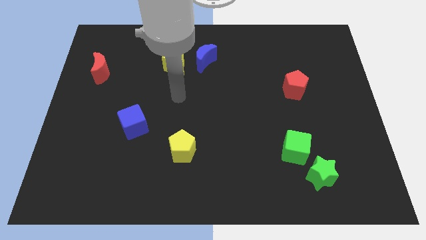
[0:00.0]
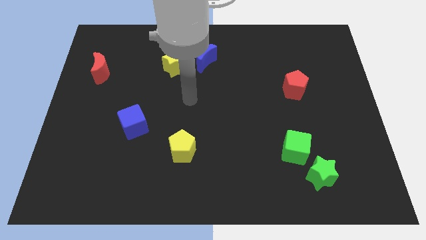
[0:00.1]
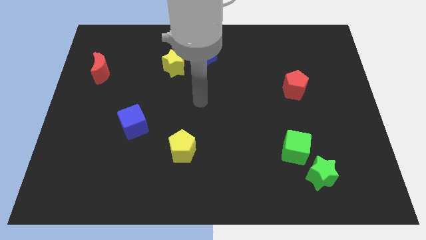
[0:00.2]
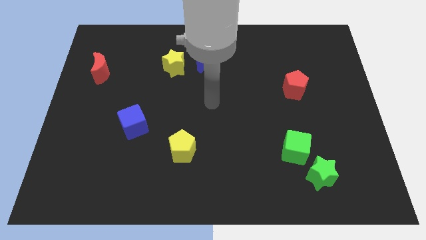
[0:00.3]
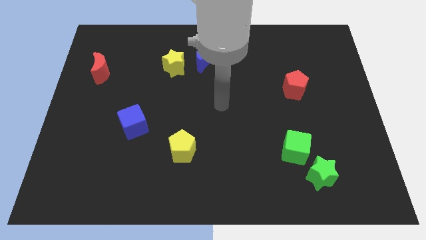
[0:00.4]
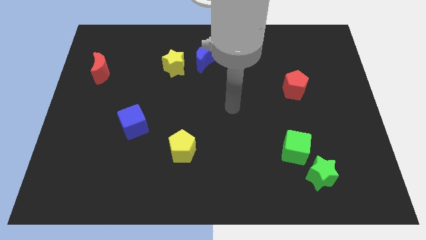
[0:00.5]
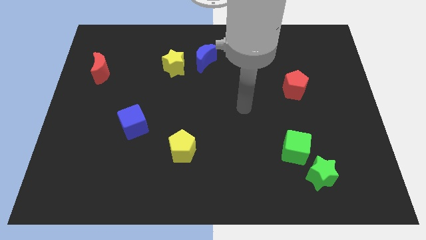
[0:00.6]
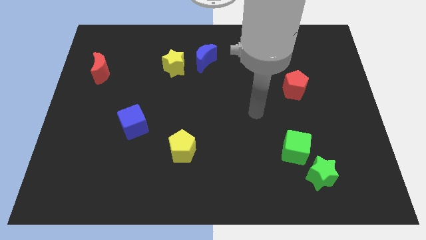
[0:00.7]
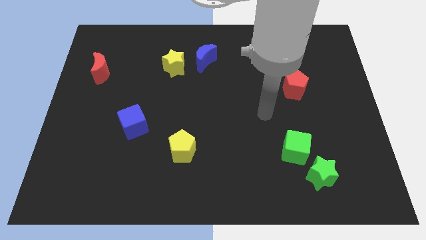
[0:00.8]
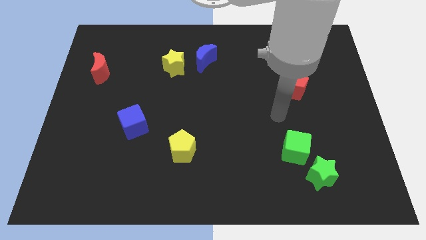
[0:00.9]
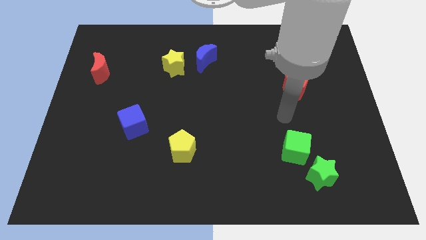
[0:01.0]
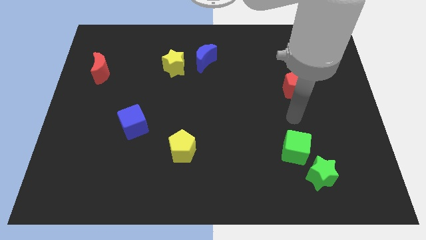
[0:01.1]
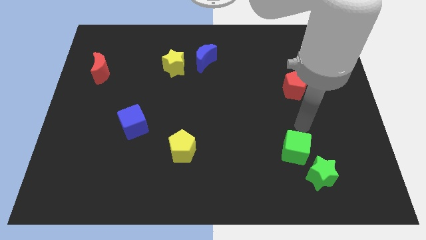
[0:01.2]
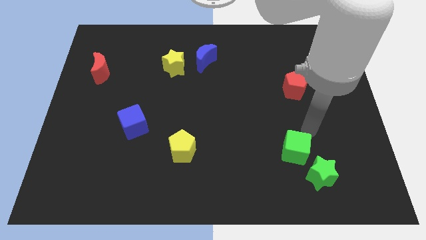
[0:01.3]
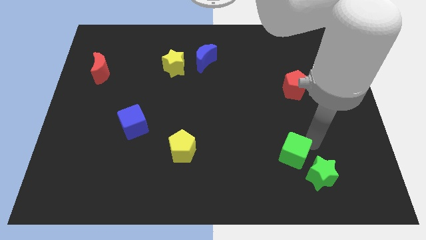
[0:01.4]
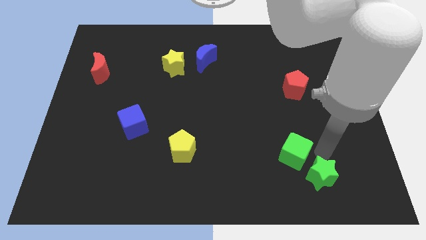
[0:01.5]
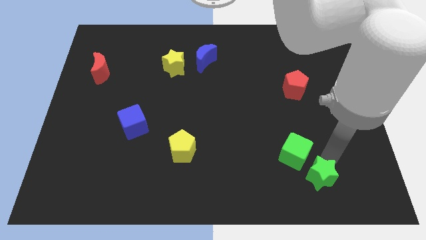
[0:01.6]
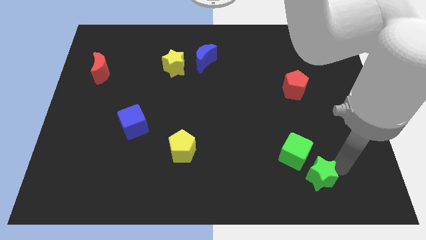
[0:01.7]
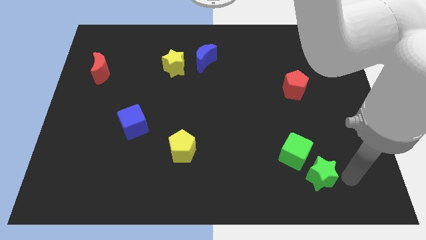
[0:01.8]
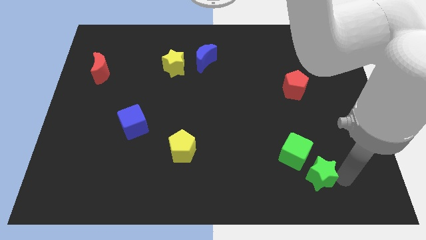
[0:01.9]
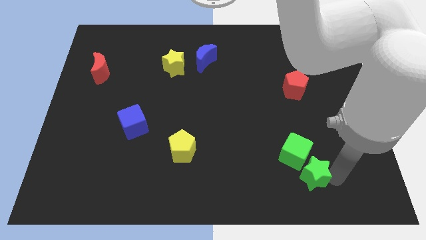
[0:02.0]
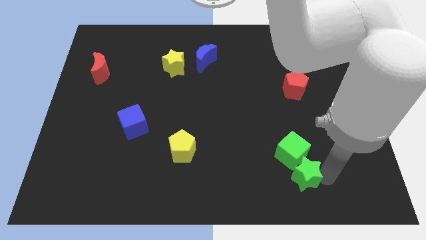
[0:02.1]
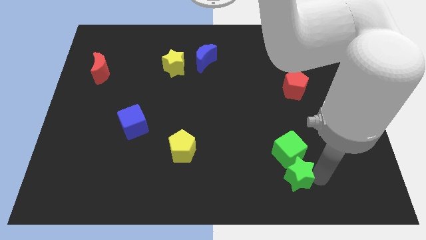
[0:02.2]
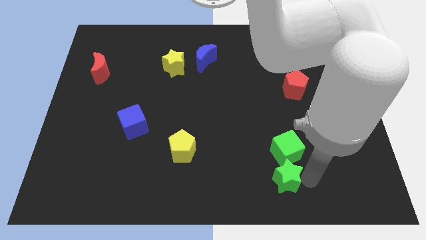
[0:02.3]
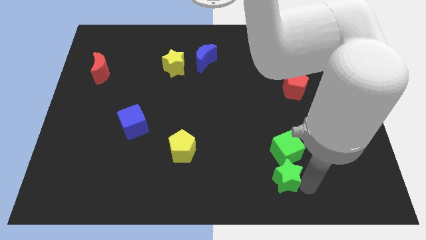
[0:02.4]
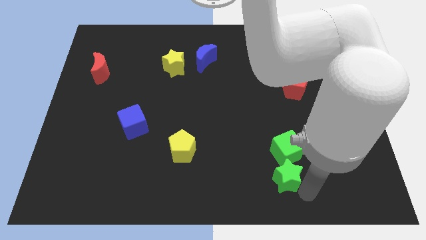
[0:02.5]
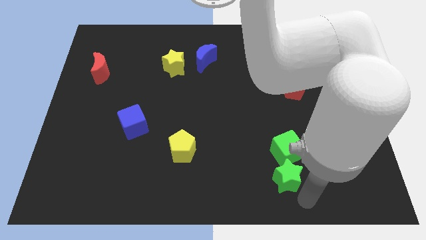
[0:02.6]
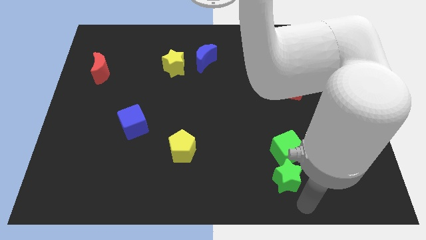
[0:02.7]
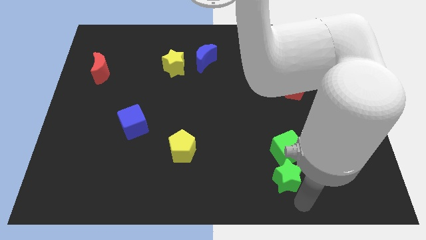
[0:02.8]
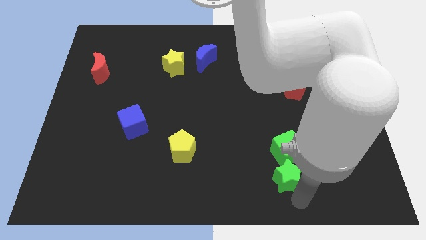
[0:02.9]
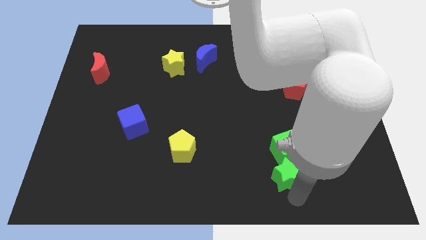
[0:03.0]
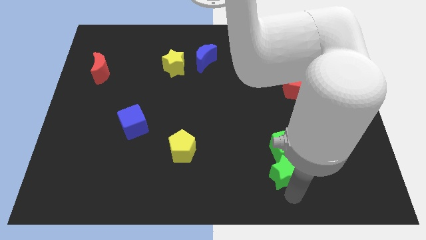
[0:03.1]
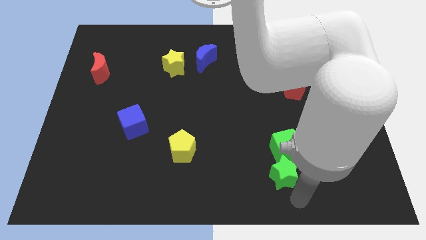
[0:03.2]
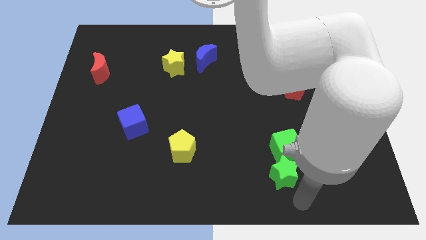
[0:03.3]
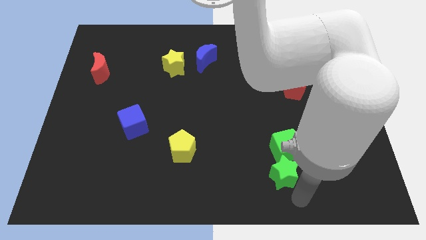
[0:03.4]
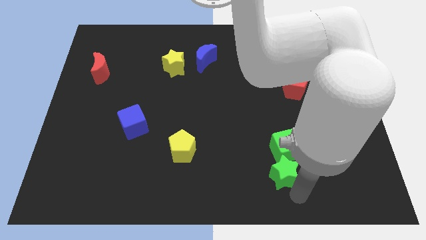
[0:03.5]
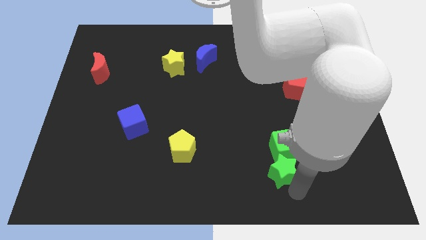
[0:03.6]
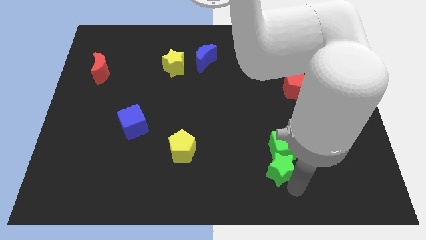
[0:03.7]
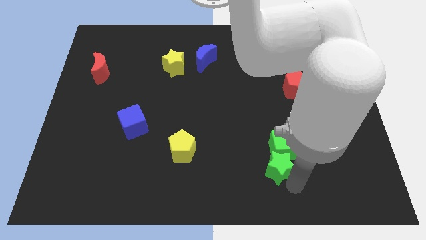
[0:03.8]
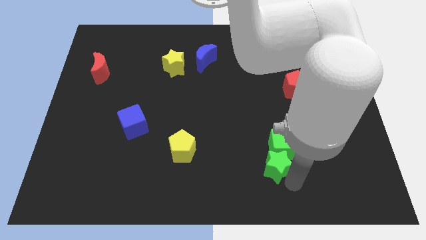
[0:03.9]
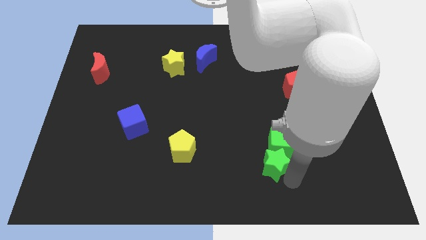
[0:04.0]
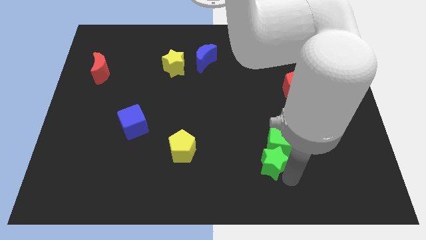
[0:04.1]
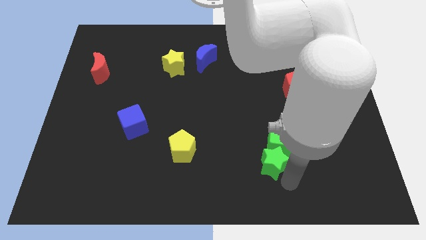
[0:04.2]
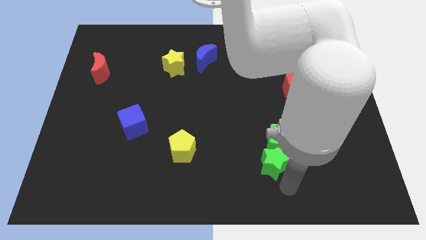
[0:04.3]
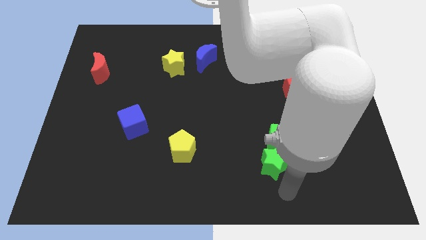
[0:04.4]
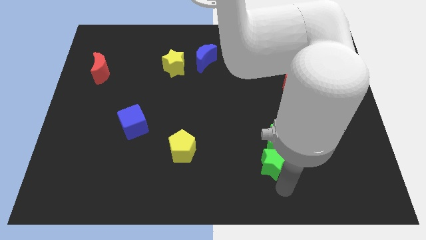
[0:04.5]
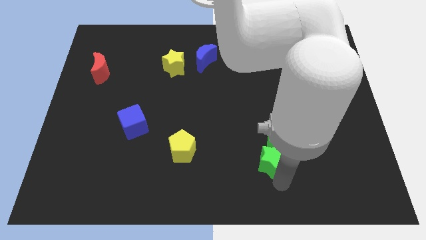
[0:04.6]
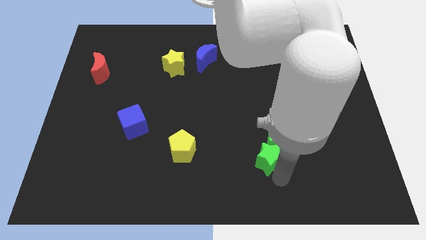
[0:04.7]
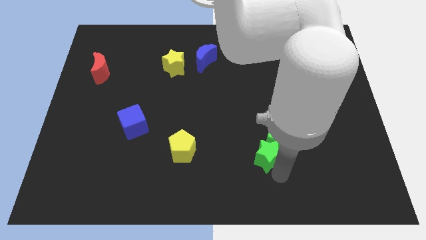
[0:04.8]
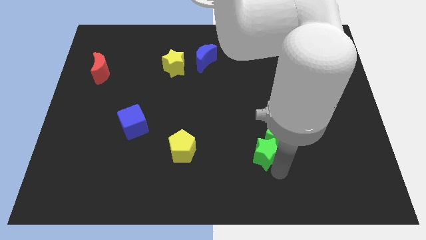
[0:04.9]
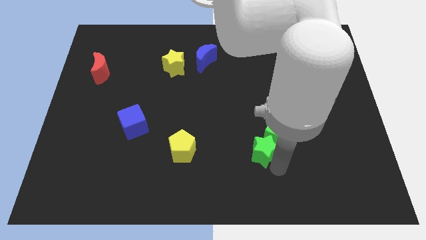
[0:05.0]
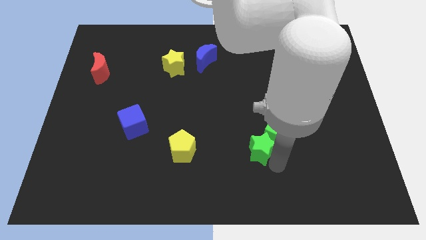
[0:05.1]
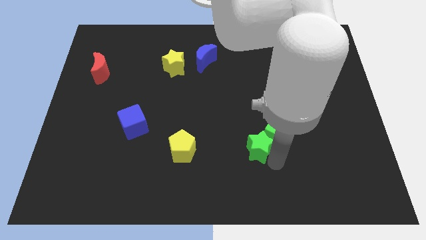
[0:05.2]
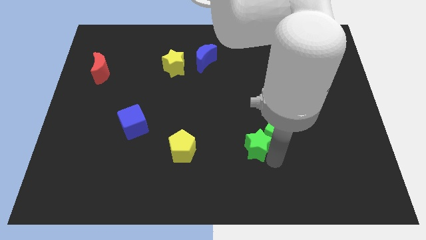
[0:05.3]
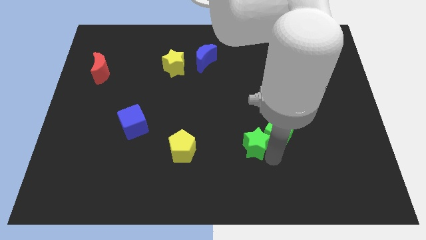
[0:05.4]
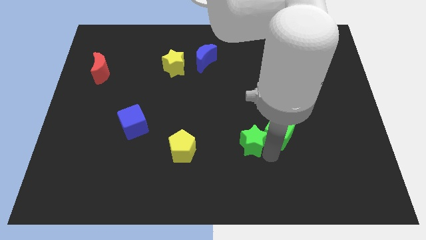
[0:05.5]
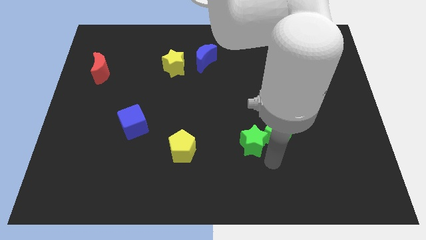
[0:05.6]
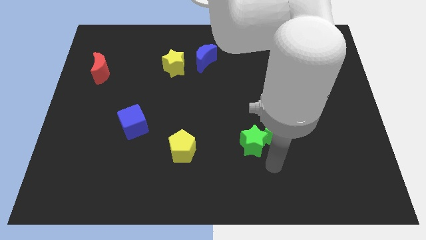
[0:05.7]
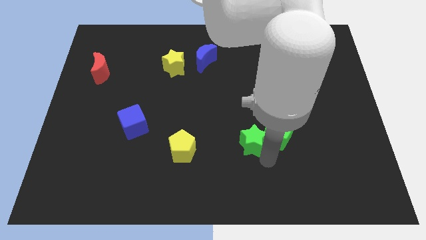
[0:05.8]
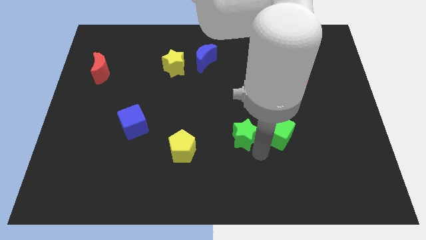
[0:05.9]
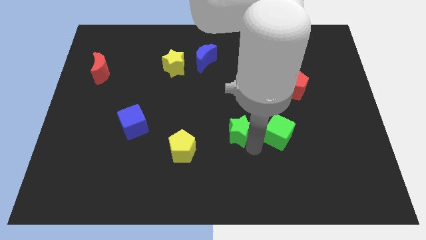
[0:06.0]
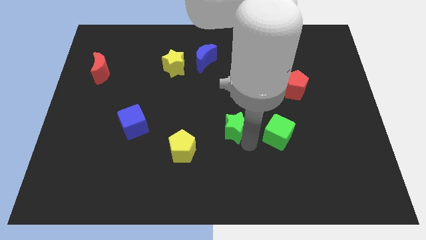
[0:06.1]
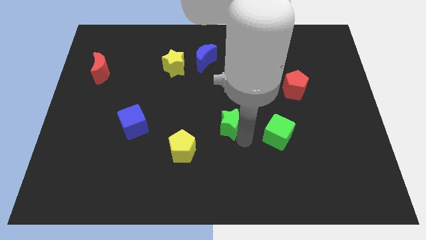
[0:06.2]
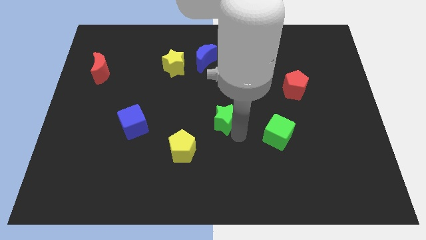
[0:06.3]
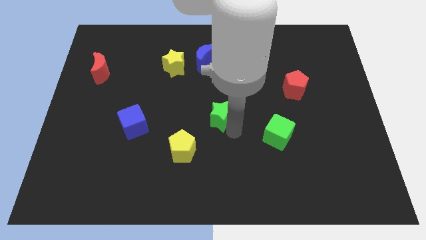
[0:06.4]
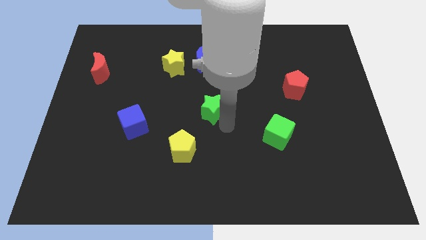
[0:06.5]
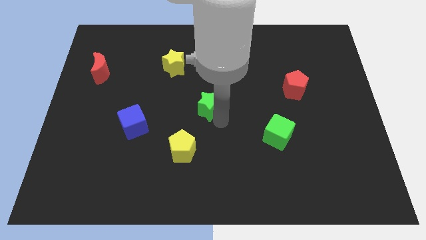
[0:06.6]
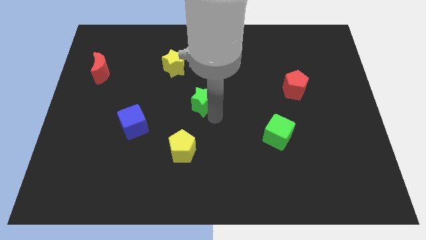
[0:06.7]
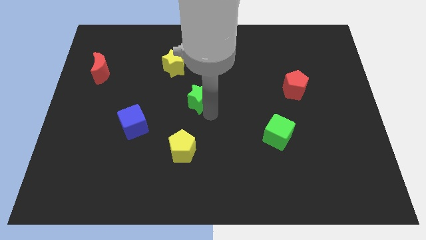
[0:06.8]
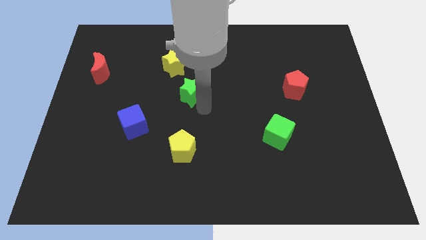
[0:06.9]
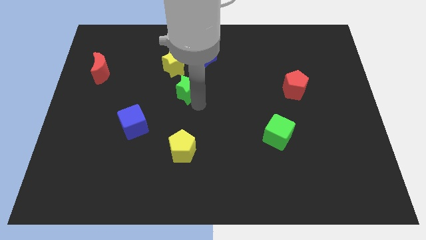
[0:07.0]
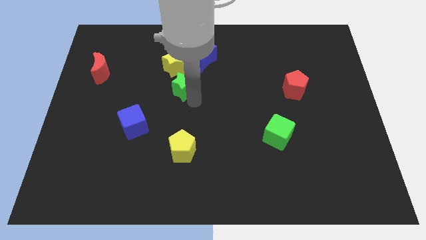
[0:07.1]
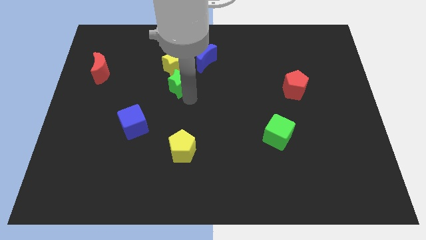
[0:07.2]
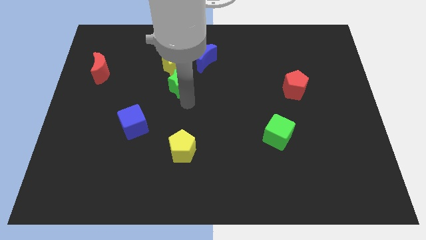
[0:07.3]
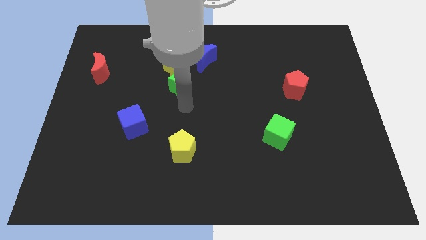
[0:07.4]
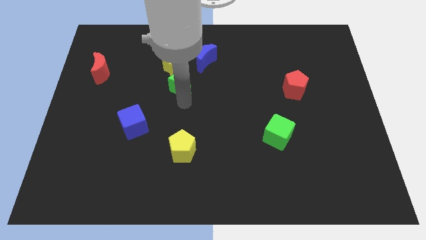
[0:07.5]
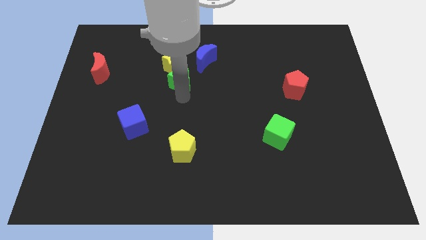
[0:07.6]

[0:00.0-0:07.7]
move the green star close to the yellow star
